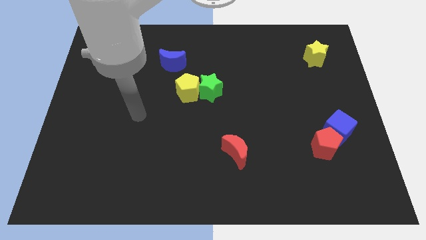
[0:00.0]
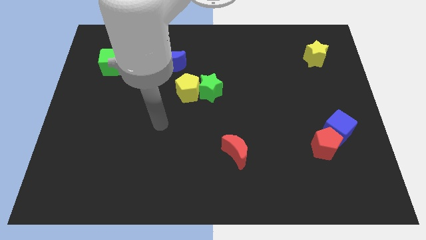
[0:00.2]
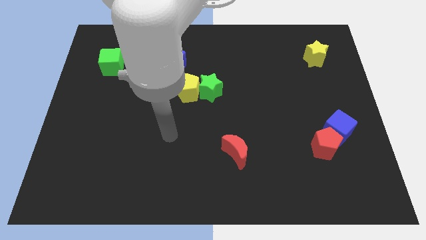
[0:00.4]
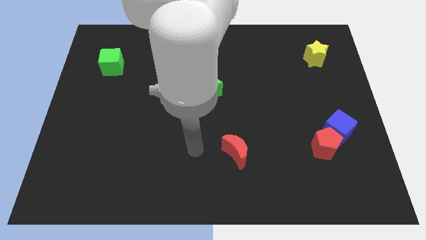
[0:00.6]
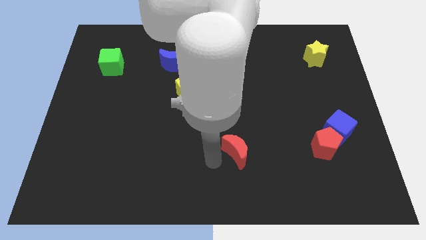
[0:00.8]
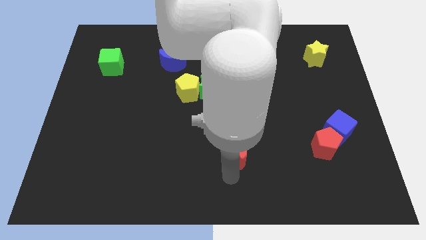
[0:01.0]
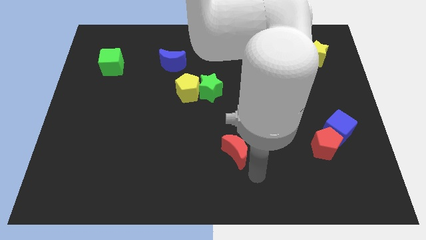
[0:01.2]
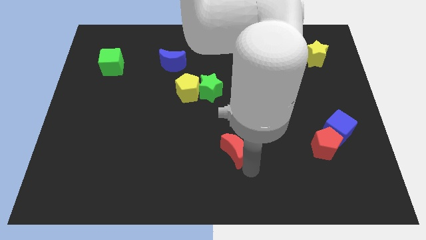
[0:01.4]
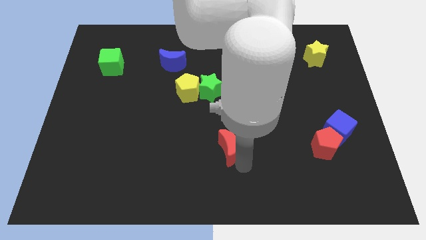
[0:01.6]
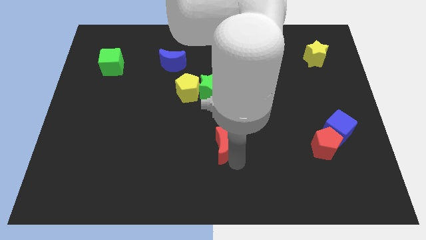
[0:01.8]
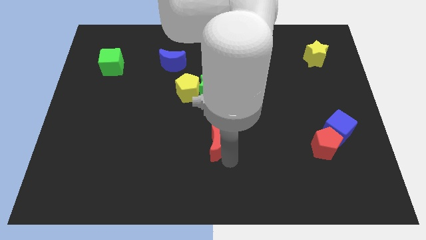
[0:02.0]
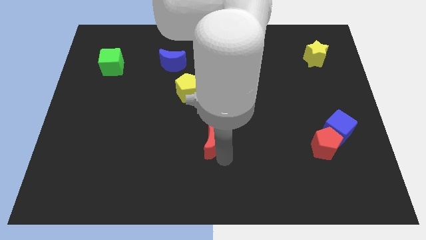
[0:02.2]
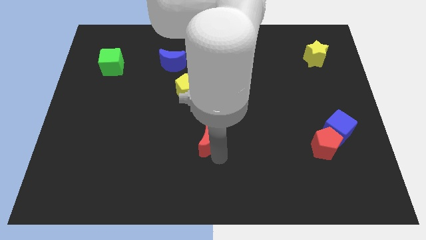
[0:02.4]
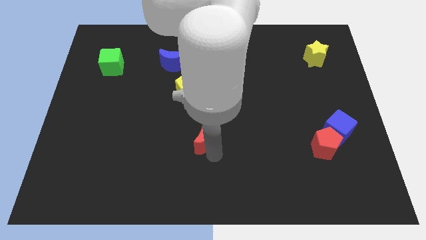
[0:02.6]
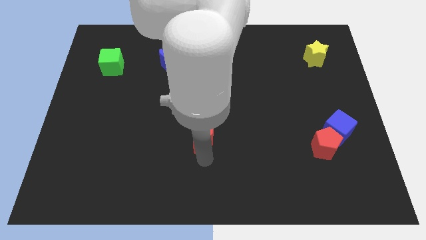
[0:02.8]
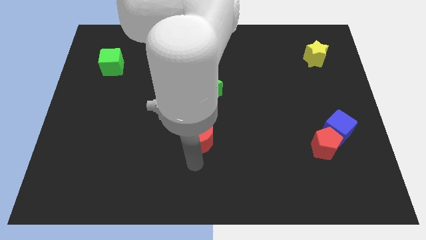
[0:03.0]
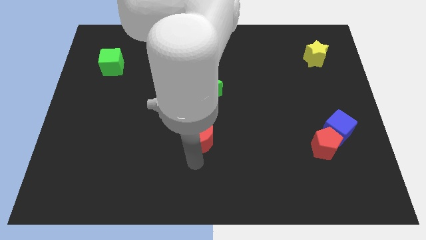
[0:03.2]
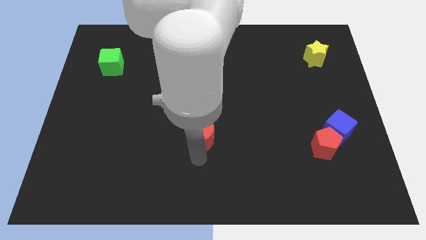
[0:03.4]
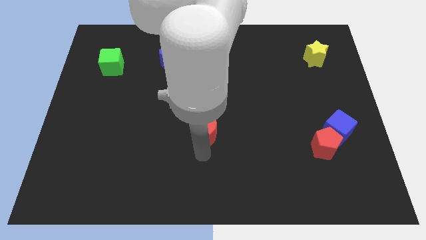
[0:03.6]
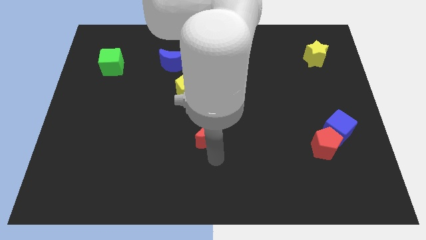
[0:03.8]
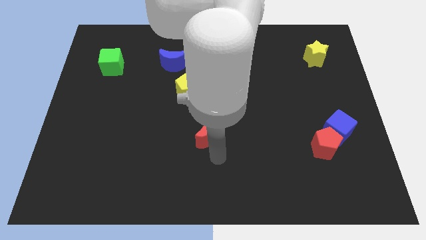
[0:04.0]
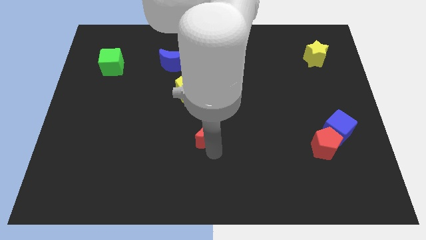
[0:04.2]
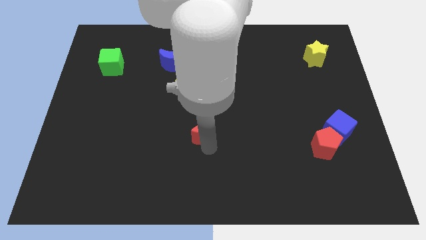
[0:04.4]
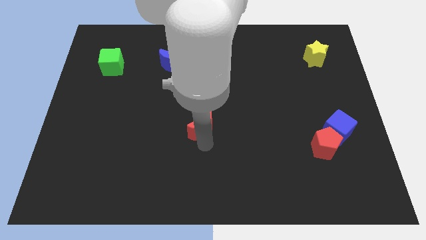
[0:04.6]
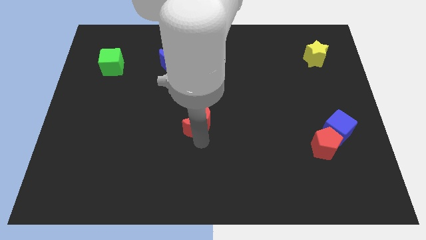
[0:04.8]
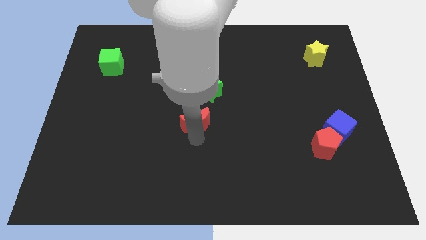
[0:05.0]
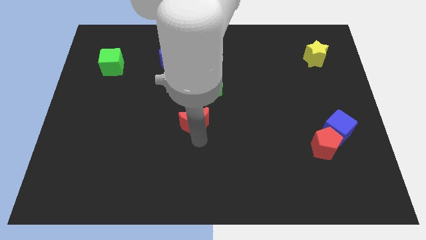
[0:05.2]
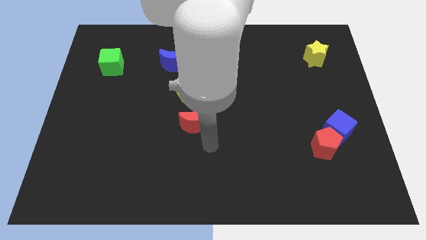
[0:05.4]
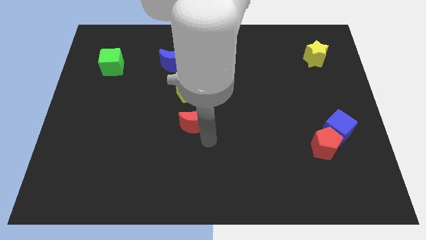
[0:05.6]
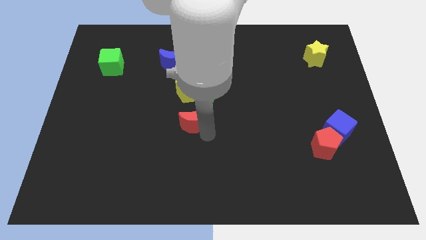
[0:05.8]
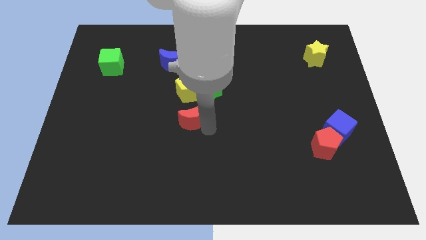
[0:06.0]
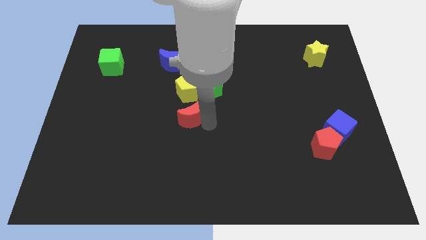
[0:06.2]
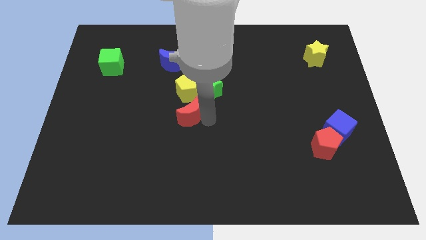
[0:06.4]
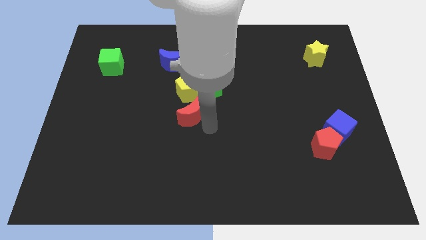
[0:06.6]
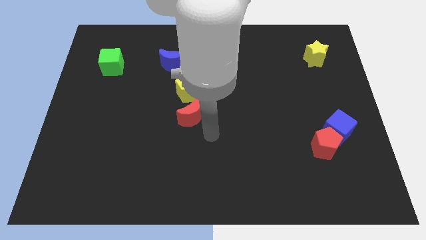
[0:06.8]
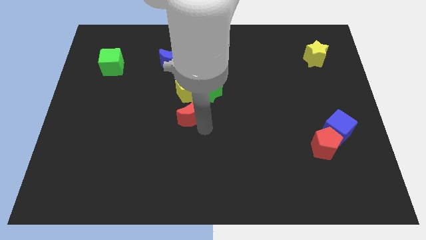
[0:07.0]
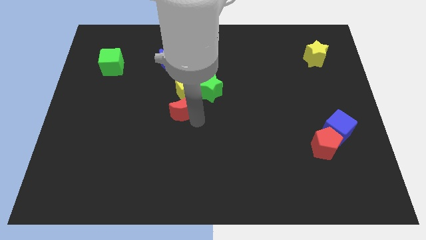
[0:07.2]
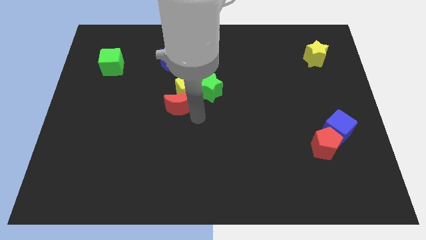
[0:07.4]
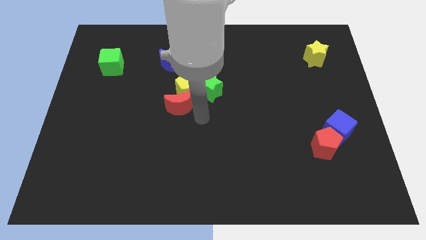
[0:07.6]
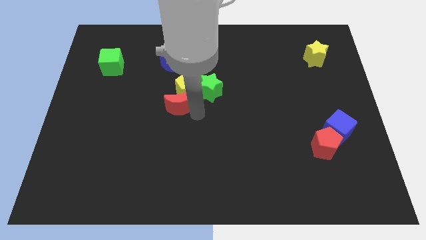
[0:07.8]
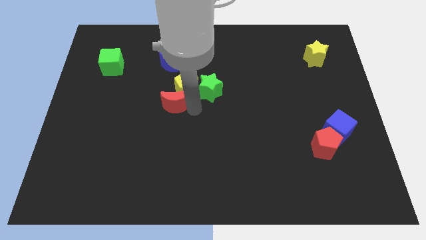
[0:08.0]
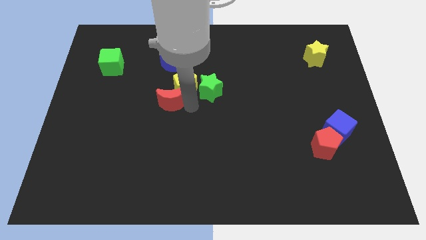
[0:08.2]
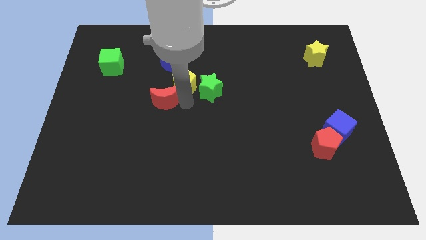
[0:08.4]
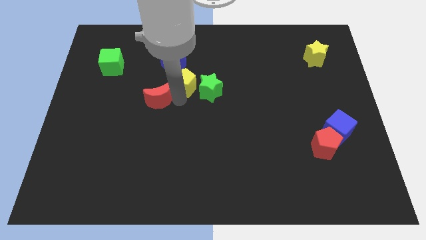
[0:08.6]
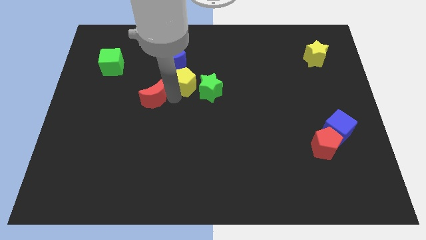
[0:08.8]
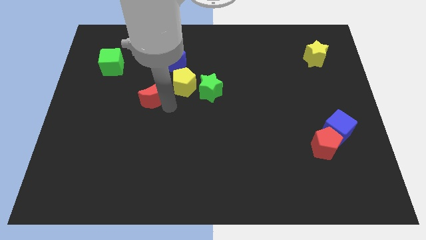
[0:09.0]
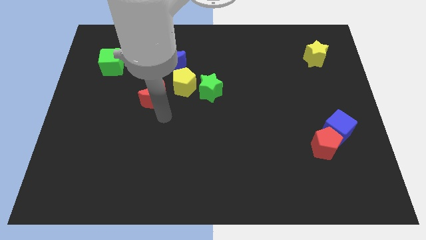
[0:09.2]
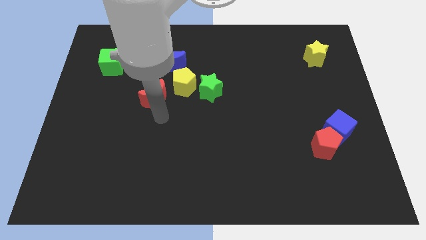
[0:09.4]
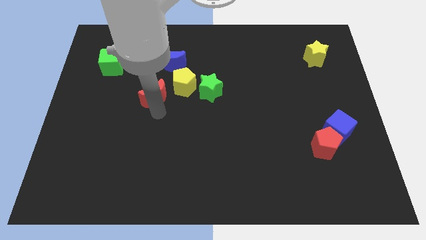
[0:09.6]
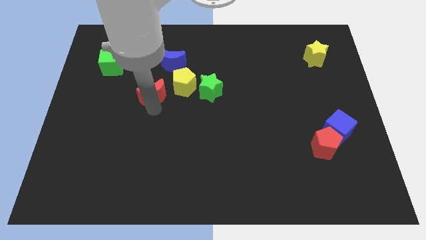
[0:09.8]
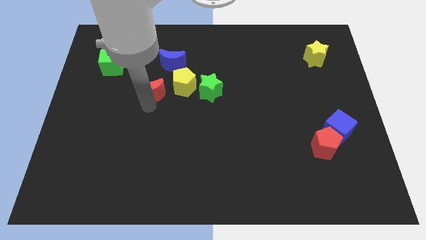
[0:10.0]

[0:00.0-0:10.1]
slide the red moon to the bottom left of the blue moon

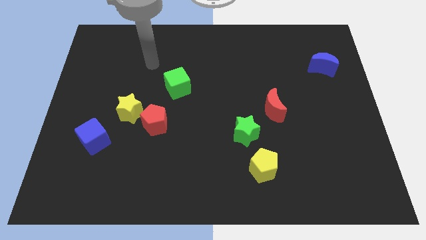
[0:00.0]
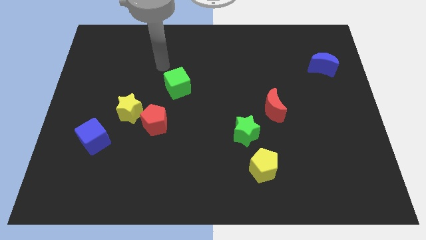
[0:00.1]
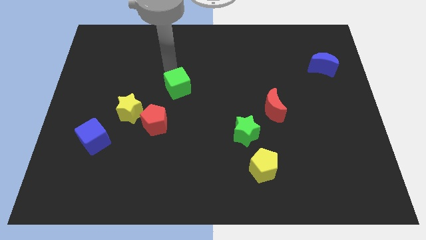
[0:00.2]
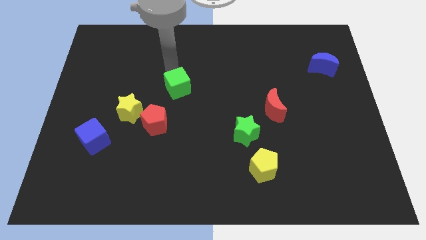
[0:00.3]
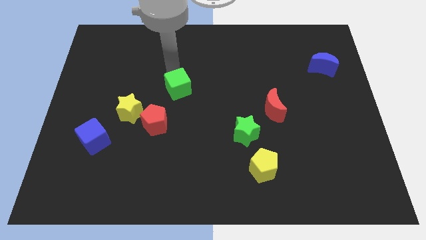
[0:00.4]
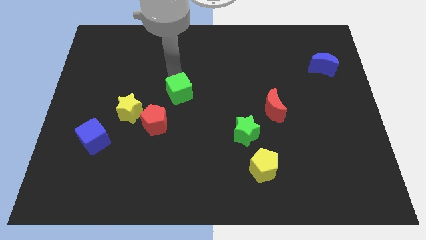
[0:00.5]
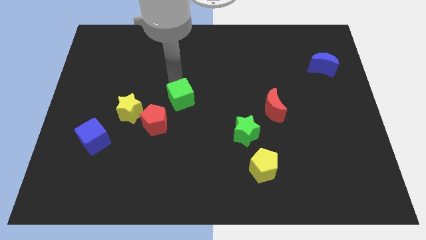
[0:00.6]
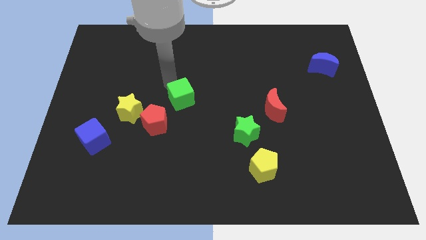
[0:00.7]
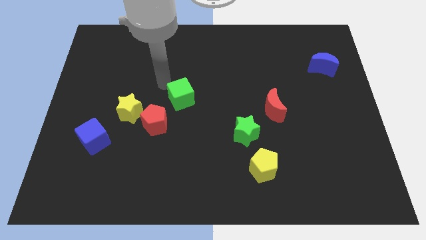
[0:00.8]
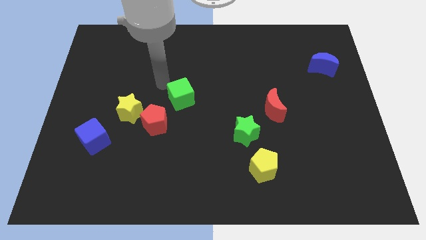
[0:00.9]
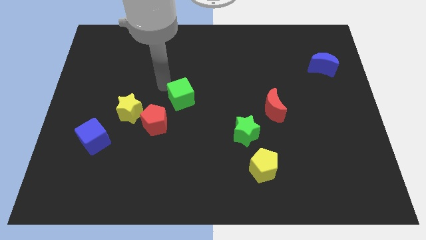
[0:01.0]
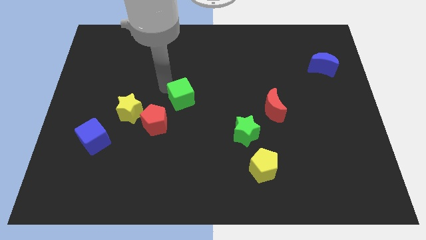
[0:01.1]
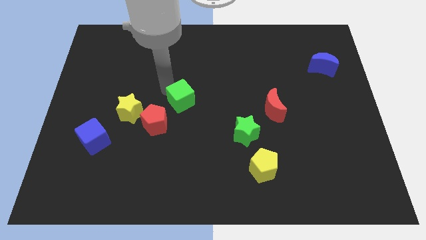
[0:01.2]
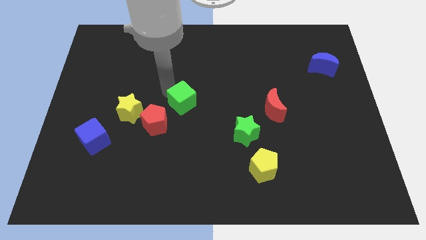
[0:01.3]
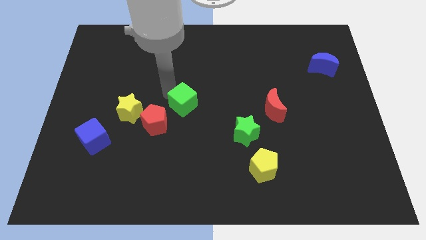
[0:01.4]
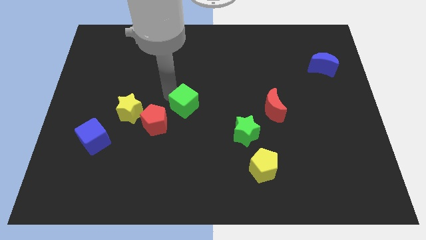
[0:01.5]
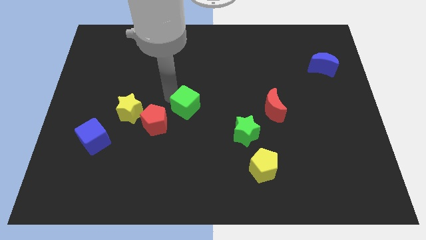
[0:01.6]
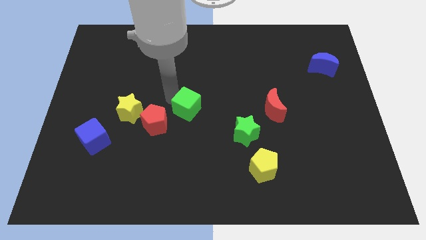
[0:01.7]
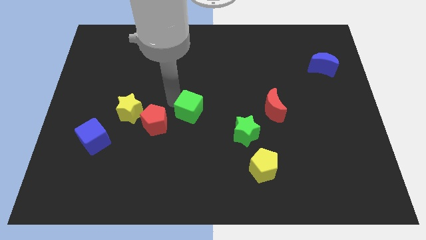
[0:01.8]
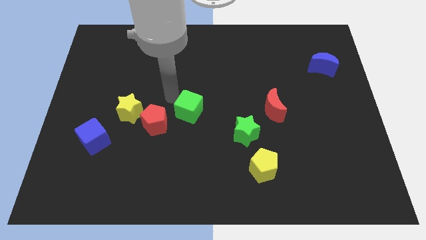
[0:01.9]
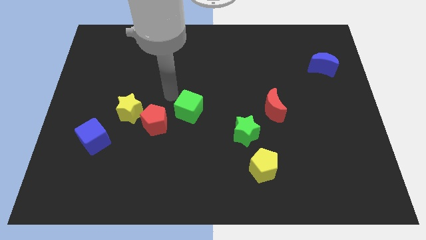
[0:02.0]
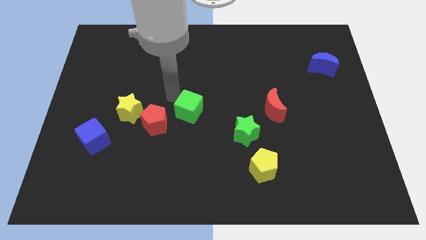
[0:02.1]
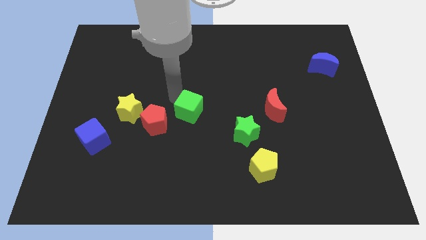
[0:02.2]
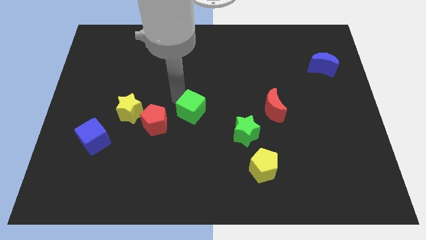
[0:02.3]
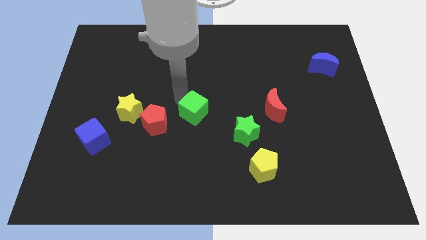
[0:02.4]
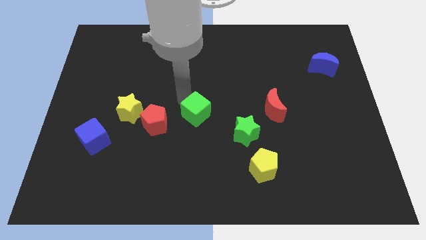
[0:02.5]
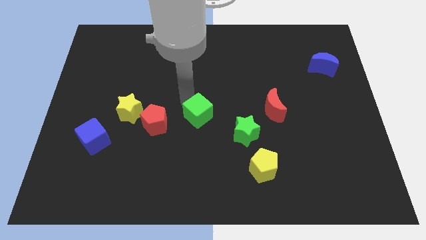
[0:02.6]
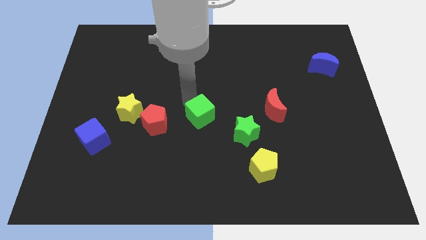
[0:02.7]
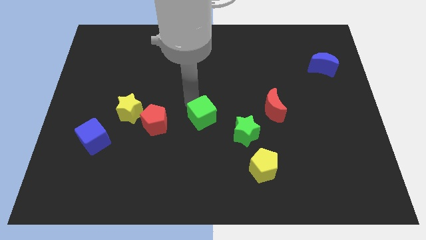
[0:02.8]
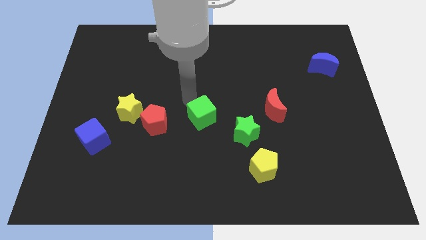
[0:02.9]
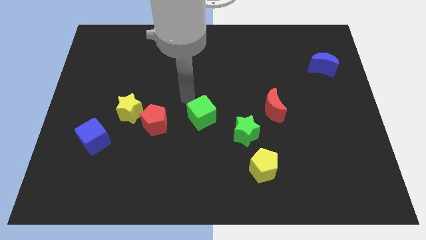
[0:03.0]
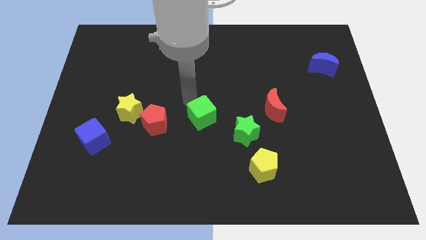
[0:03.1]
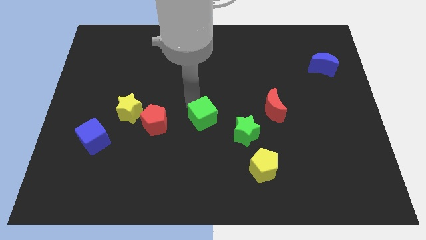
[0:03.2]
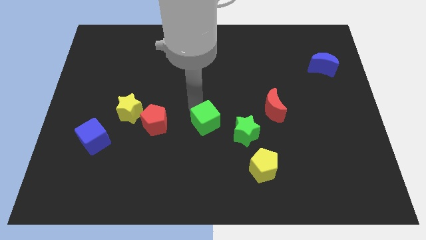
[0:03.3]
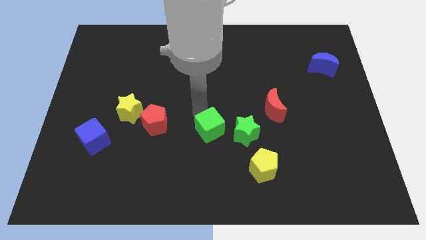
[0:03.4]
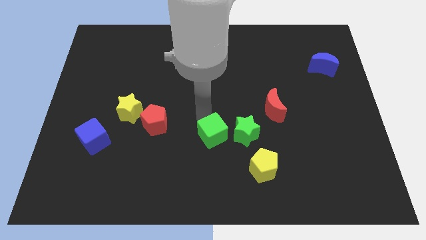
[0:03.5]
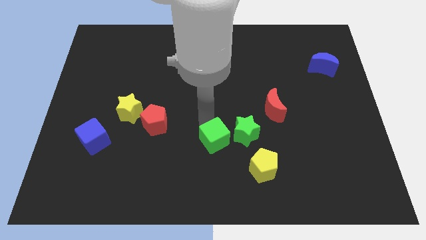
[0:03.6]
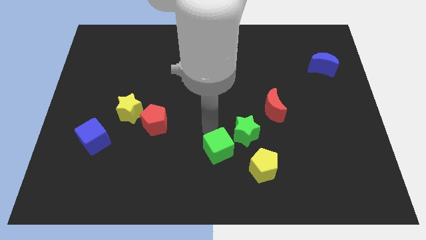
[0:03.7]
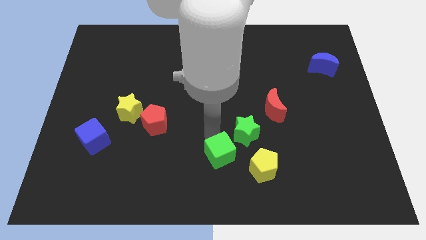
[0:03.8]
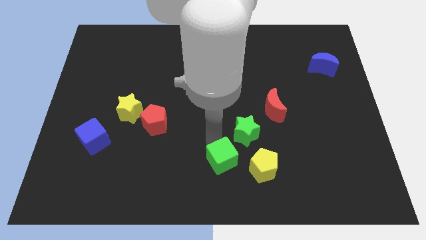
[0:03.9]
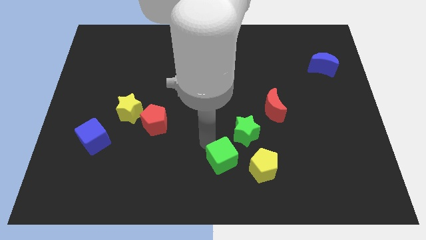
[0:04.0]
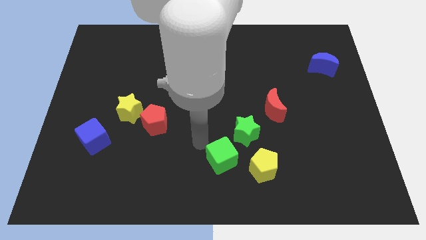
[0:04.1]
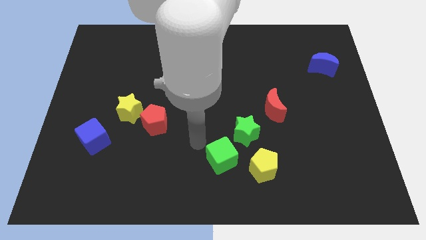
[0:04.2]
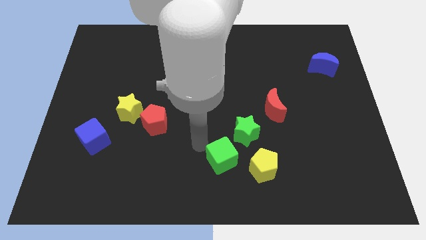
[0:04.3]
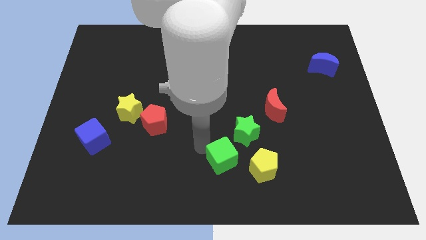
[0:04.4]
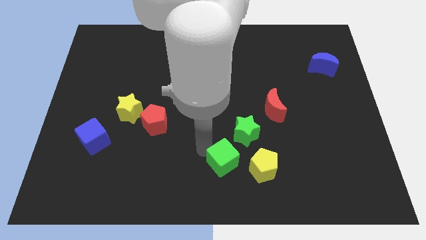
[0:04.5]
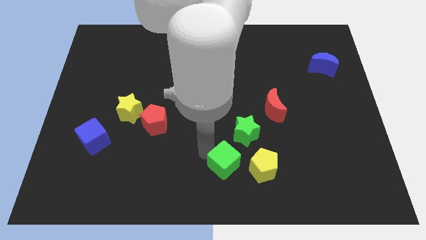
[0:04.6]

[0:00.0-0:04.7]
slide the green cube below the green star
